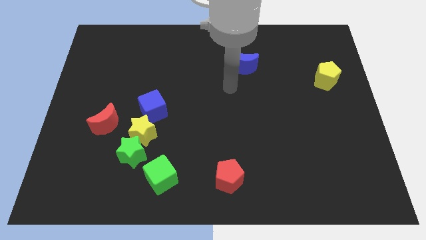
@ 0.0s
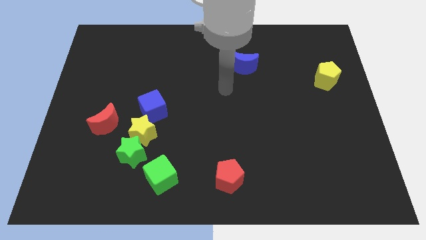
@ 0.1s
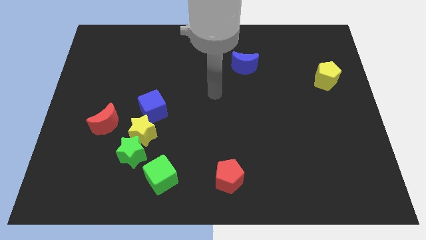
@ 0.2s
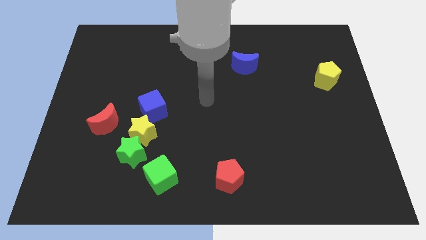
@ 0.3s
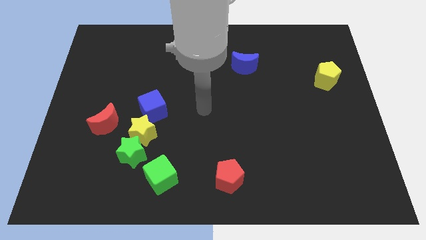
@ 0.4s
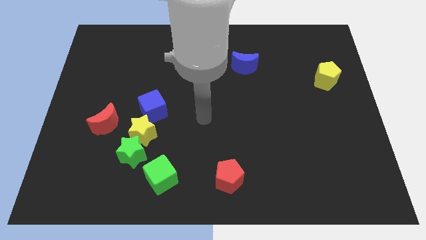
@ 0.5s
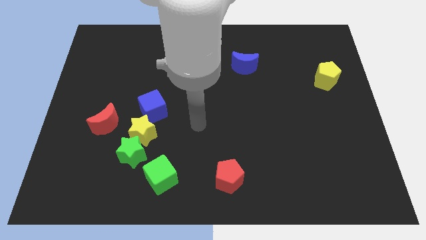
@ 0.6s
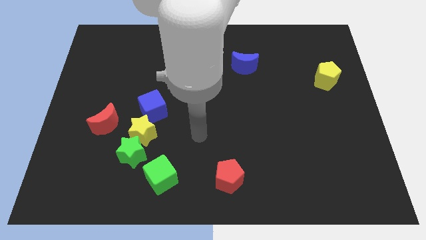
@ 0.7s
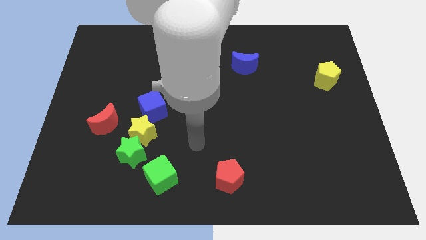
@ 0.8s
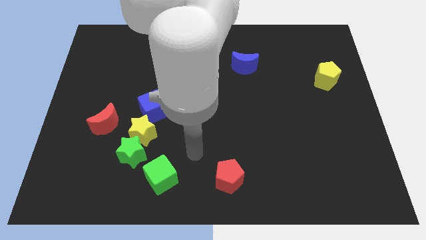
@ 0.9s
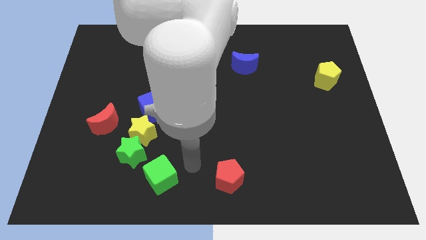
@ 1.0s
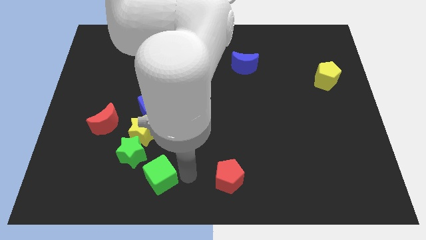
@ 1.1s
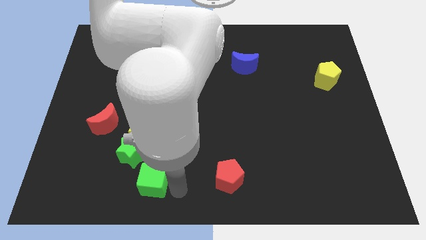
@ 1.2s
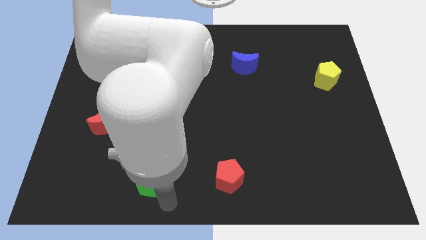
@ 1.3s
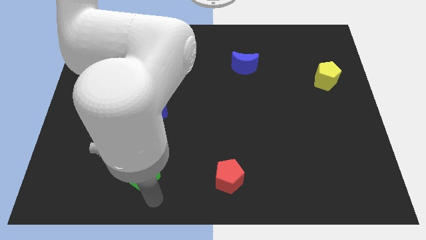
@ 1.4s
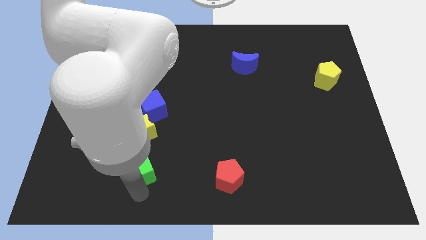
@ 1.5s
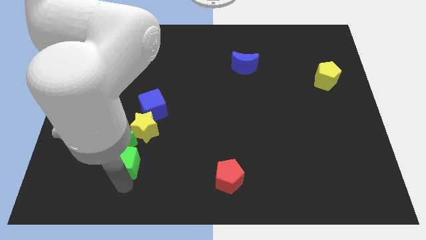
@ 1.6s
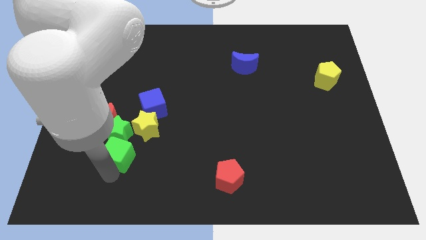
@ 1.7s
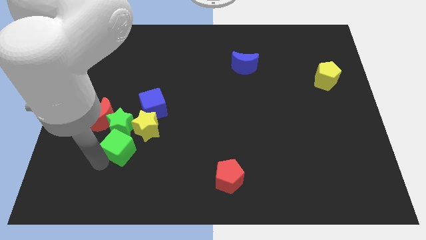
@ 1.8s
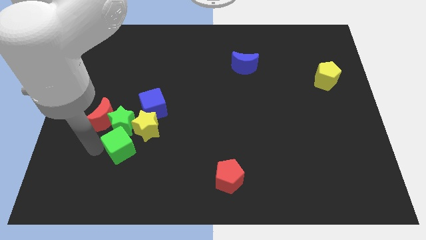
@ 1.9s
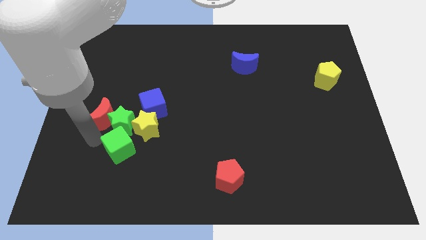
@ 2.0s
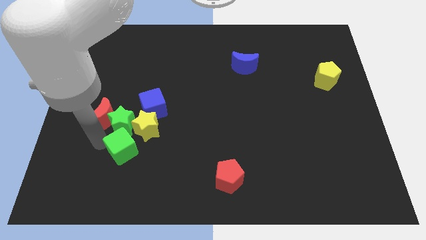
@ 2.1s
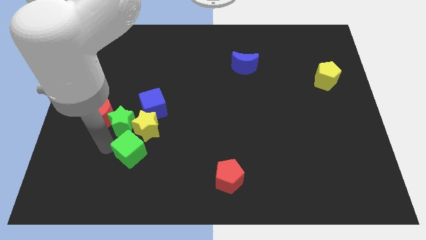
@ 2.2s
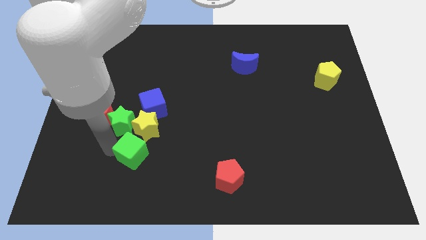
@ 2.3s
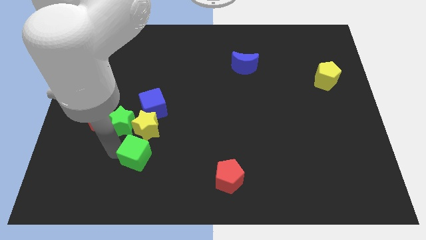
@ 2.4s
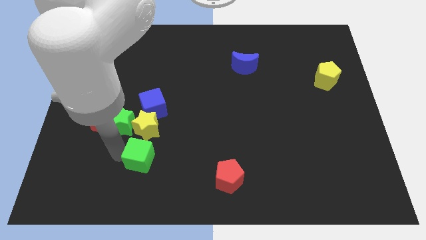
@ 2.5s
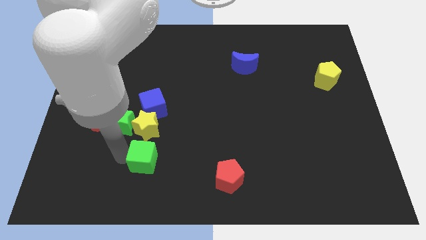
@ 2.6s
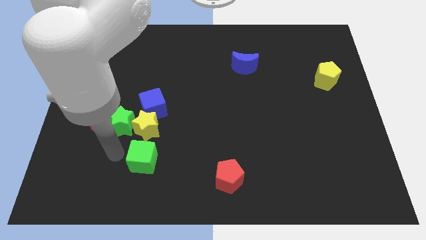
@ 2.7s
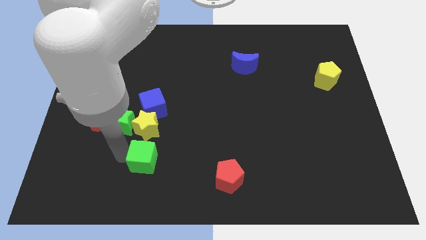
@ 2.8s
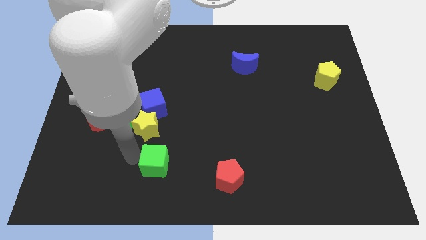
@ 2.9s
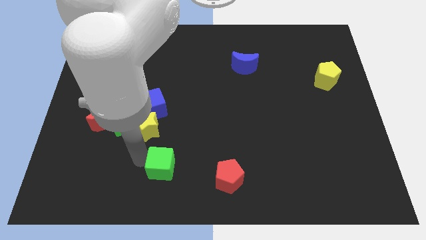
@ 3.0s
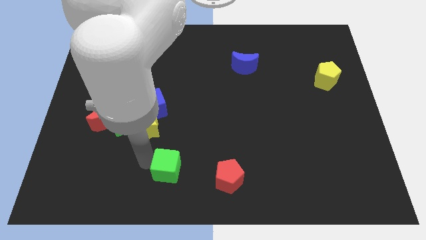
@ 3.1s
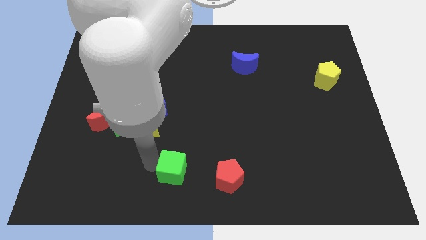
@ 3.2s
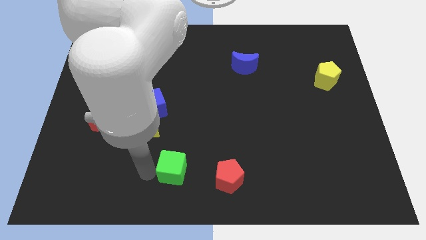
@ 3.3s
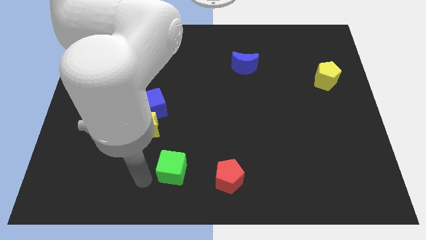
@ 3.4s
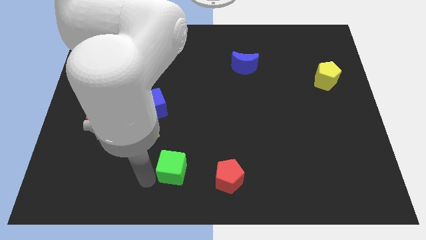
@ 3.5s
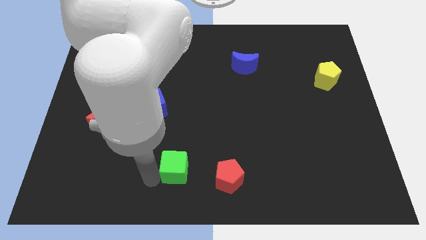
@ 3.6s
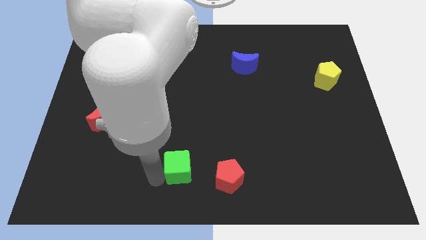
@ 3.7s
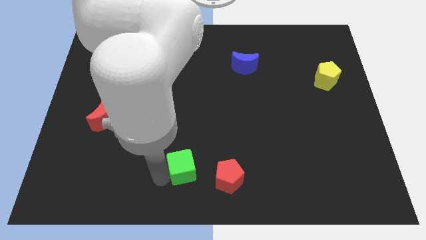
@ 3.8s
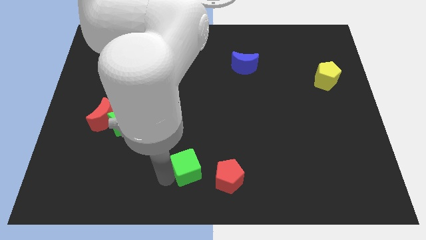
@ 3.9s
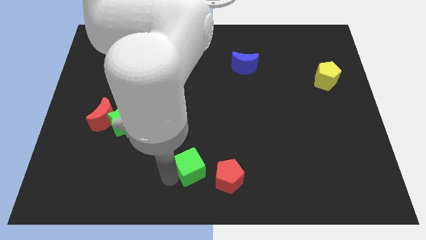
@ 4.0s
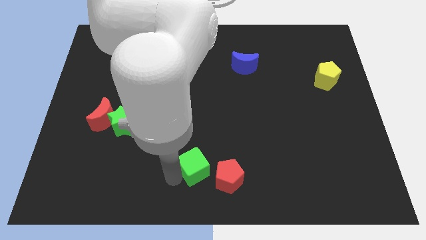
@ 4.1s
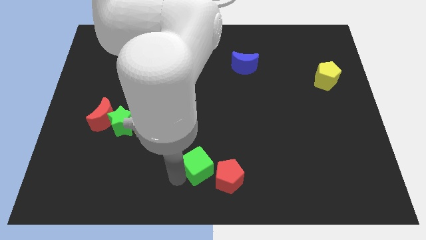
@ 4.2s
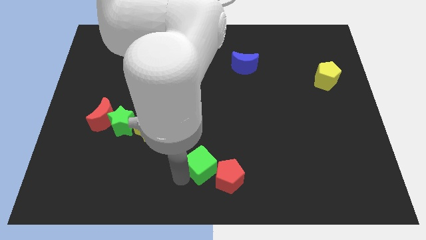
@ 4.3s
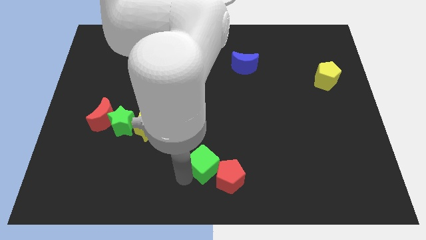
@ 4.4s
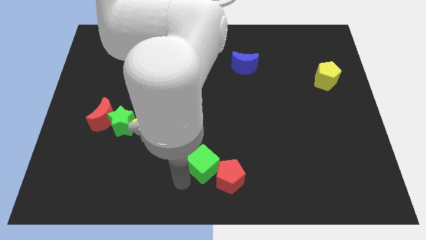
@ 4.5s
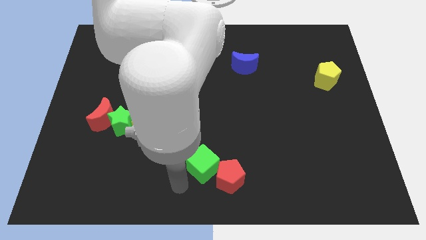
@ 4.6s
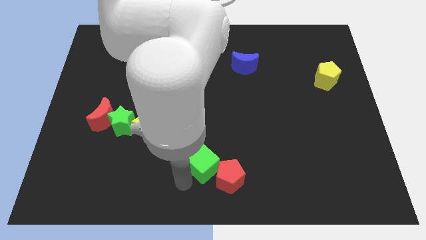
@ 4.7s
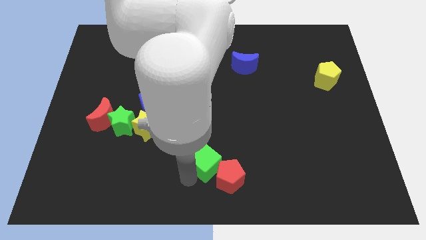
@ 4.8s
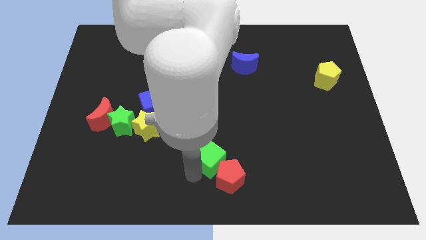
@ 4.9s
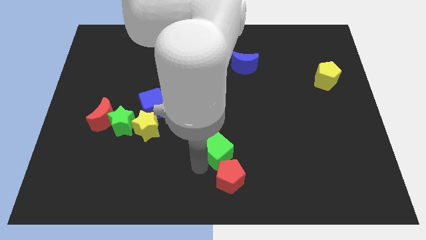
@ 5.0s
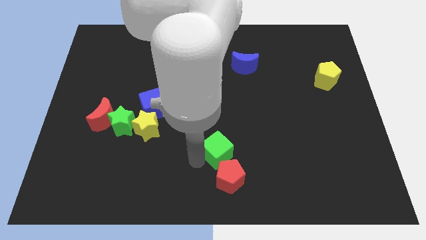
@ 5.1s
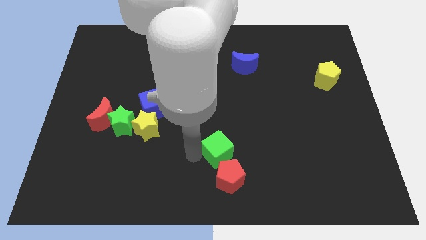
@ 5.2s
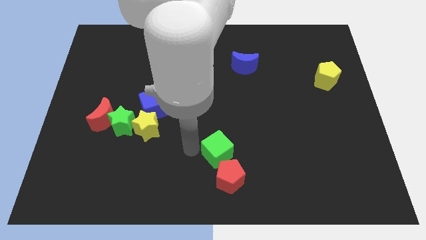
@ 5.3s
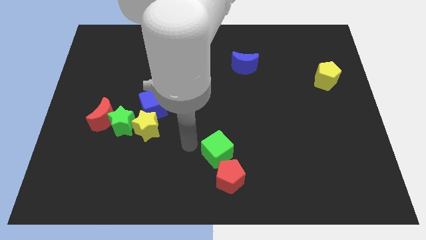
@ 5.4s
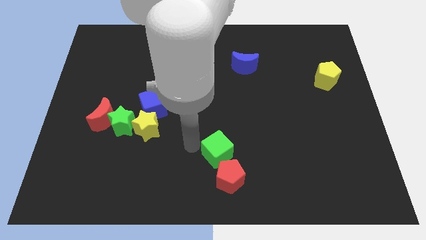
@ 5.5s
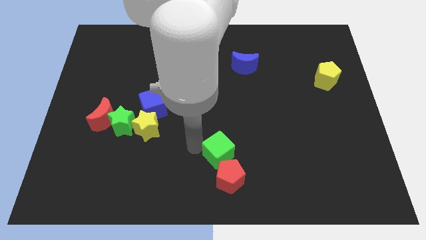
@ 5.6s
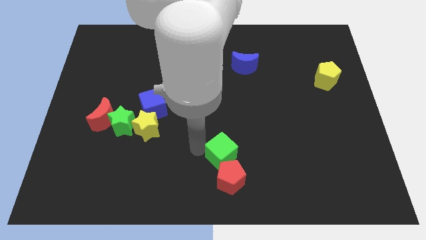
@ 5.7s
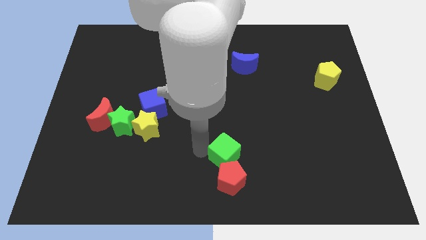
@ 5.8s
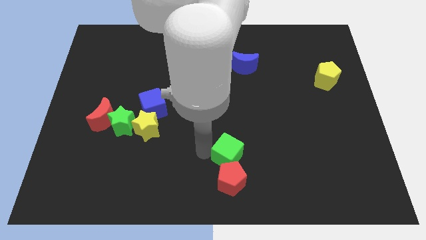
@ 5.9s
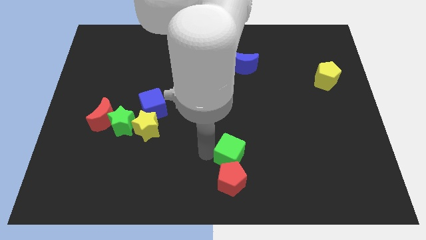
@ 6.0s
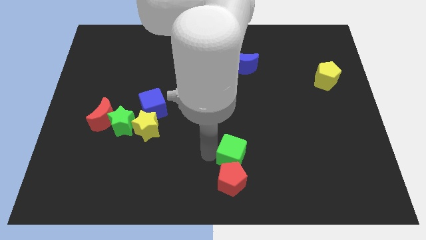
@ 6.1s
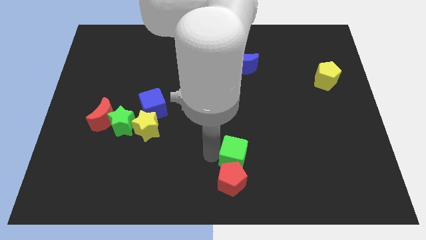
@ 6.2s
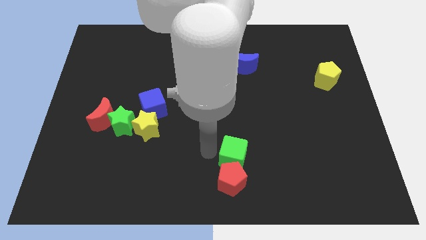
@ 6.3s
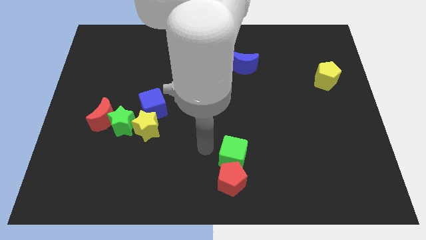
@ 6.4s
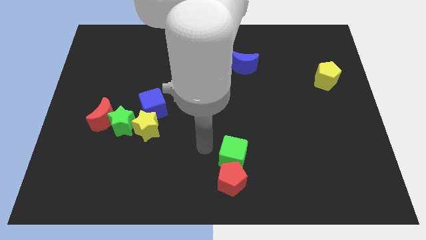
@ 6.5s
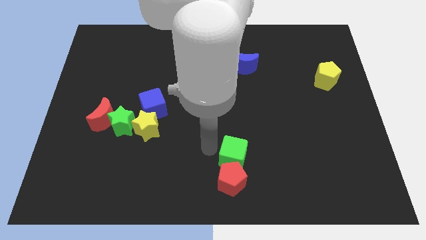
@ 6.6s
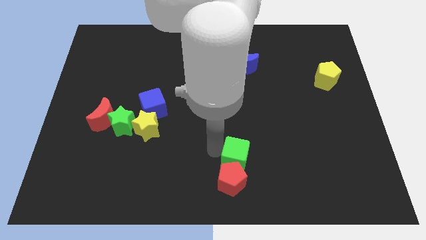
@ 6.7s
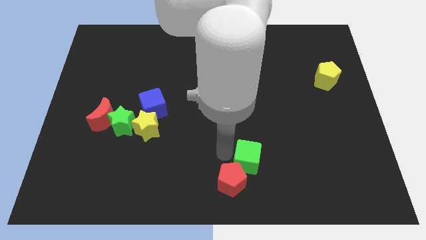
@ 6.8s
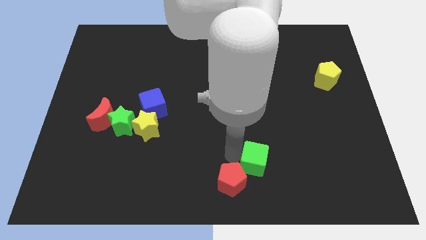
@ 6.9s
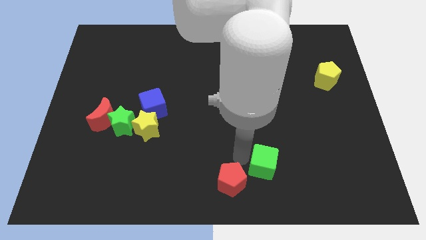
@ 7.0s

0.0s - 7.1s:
move the green cube to the right

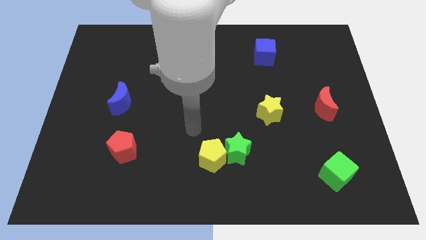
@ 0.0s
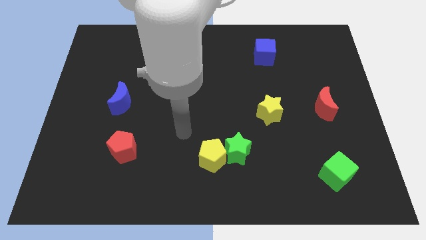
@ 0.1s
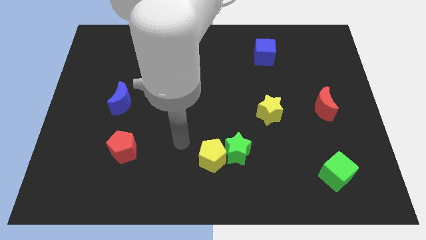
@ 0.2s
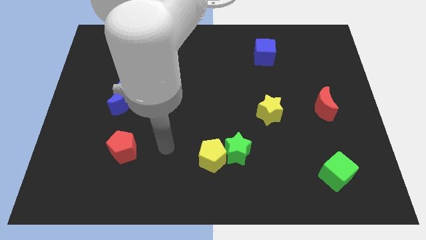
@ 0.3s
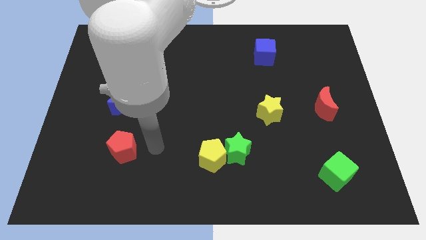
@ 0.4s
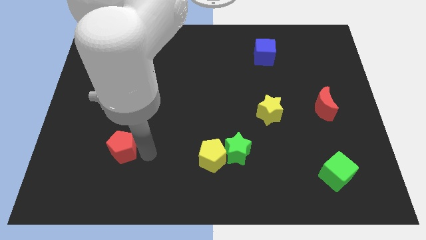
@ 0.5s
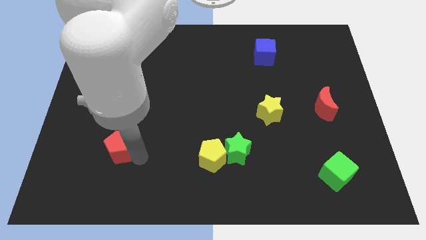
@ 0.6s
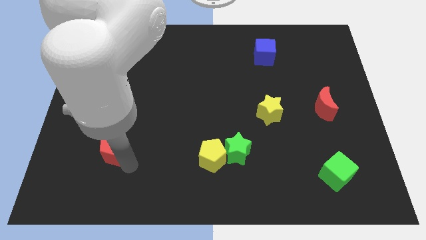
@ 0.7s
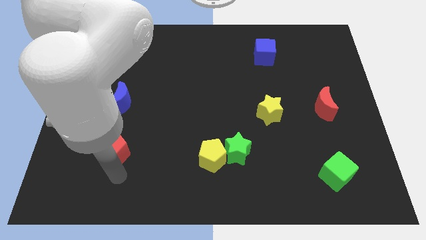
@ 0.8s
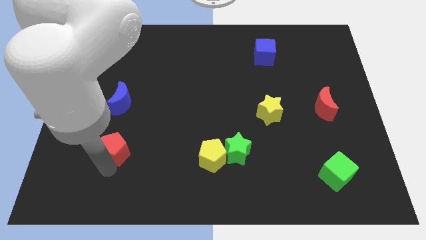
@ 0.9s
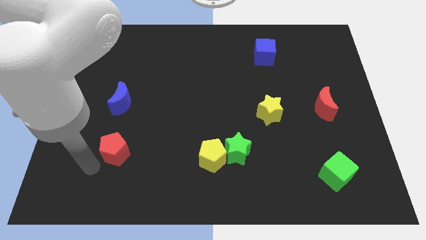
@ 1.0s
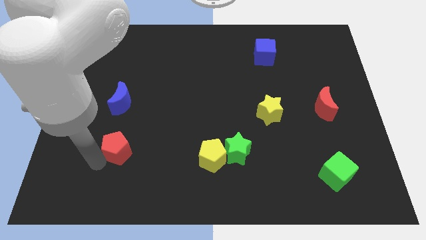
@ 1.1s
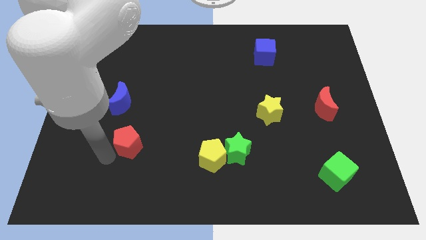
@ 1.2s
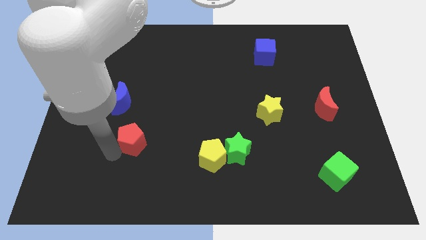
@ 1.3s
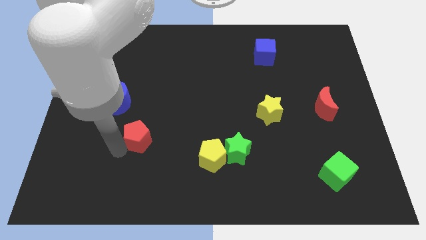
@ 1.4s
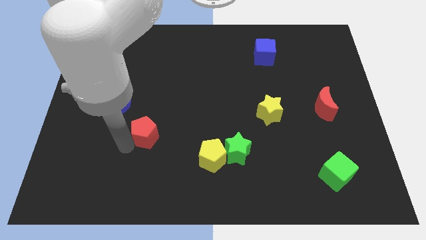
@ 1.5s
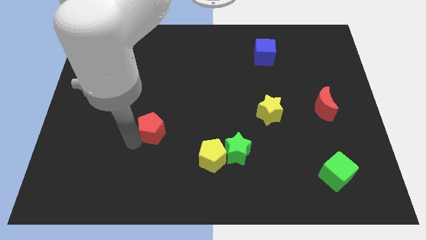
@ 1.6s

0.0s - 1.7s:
move the red pentagon diagonally up and right a little bit
